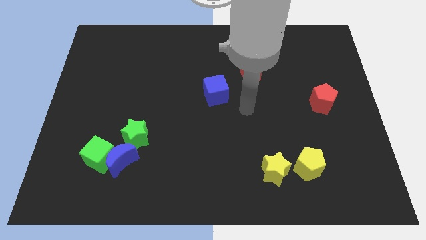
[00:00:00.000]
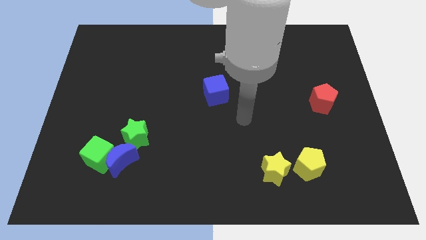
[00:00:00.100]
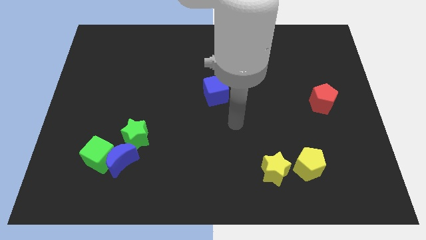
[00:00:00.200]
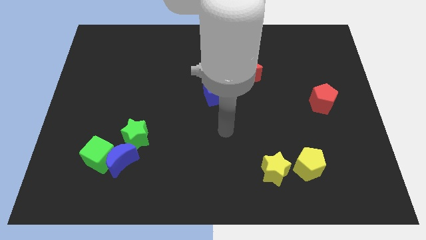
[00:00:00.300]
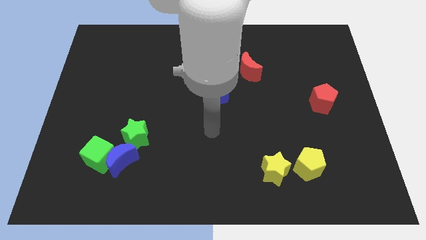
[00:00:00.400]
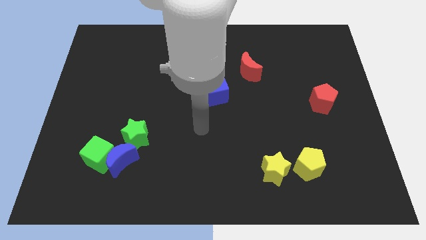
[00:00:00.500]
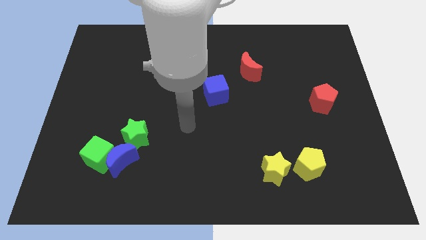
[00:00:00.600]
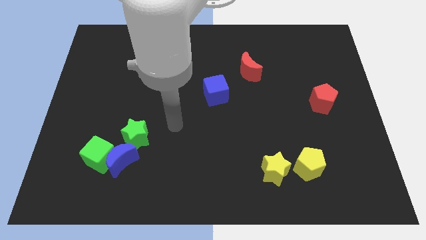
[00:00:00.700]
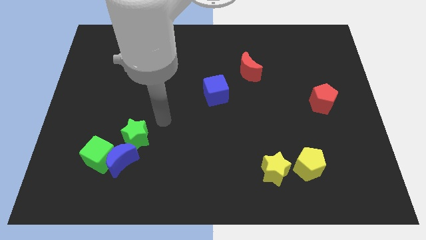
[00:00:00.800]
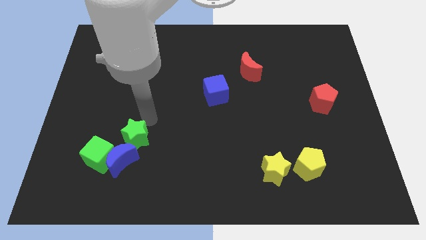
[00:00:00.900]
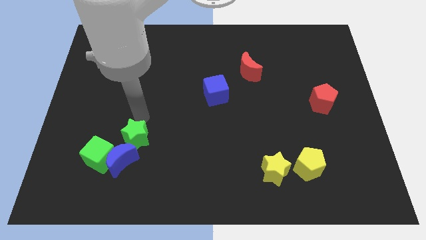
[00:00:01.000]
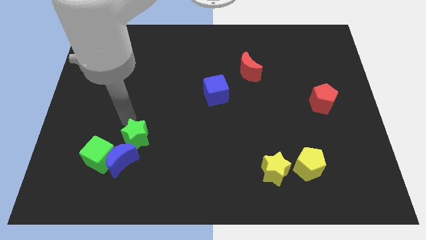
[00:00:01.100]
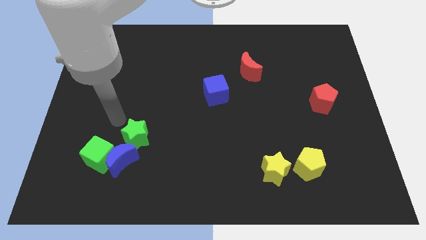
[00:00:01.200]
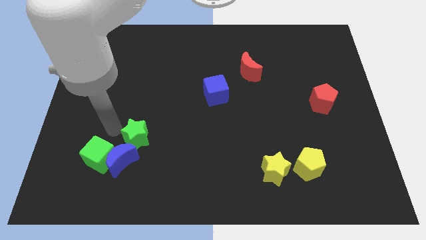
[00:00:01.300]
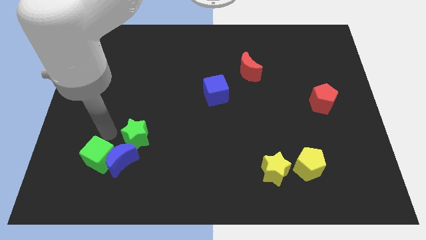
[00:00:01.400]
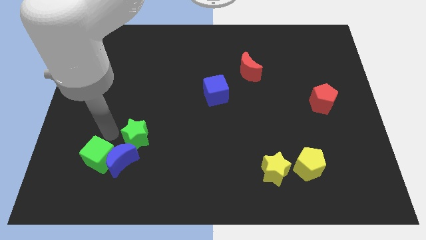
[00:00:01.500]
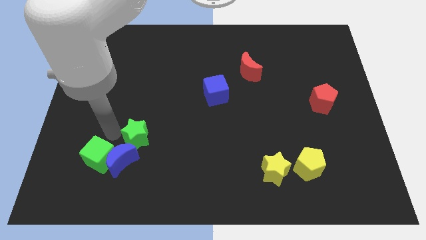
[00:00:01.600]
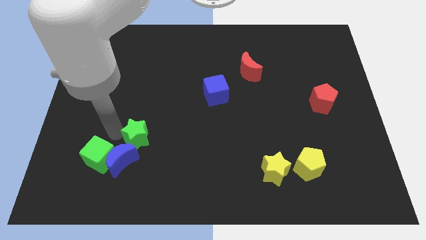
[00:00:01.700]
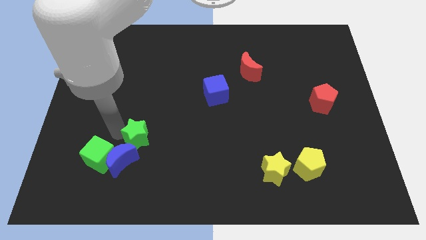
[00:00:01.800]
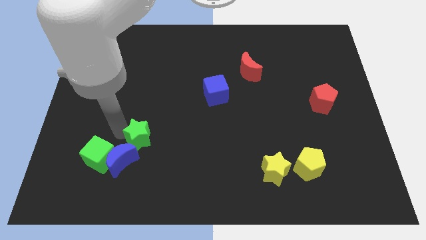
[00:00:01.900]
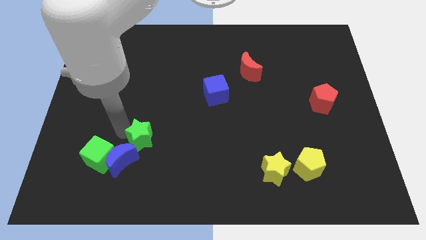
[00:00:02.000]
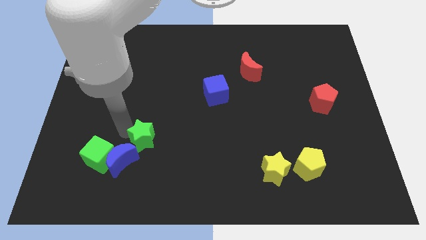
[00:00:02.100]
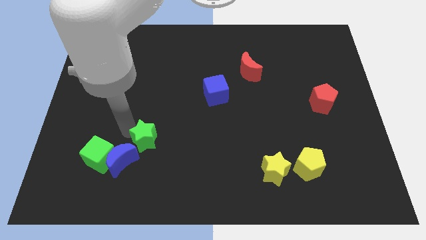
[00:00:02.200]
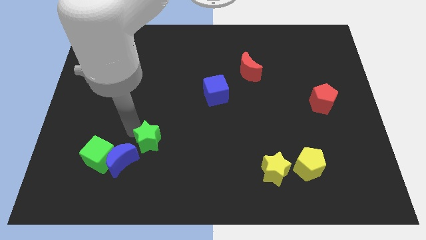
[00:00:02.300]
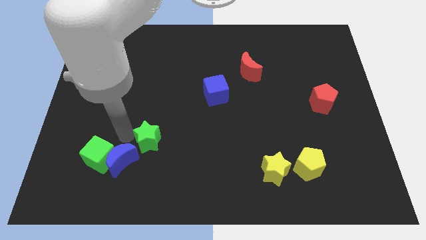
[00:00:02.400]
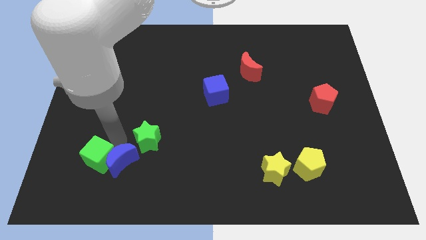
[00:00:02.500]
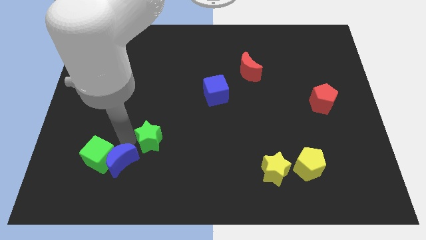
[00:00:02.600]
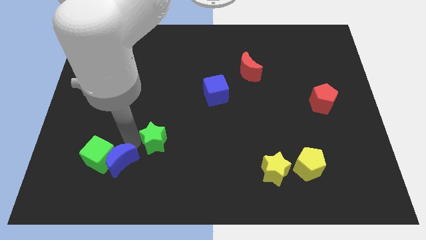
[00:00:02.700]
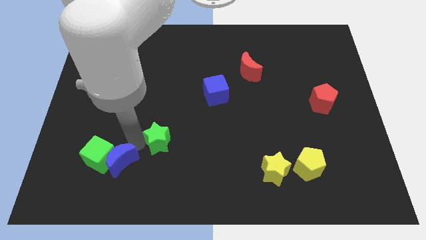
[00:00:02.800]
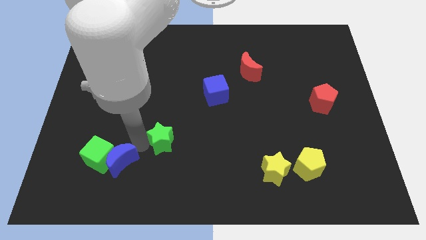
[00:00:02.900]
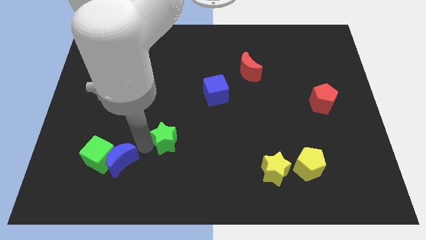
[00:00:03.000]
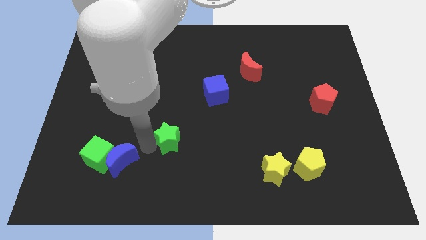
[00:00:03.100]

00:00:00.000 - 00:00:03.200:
slide the green star to the right a bit

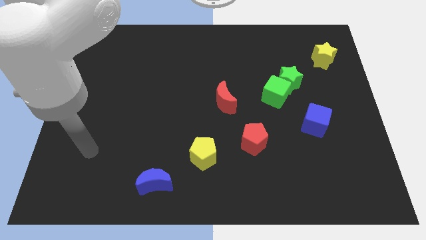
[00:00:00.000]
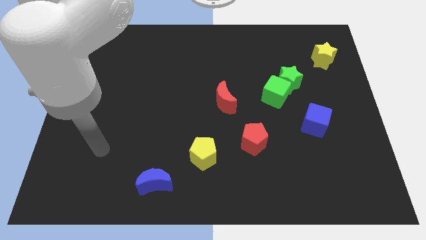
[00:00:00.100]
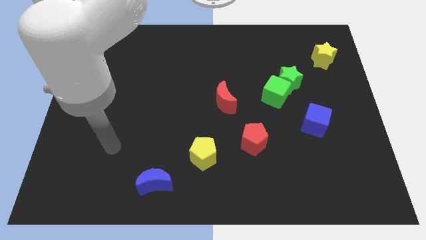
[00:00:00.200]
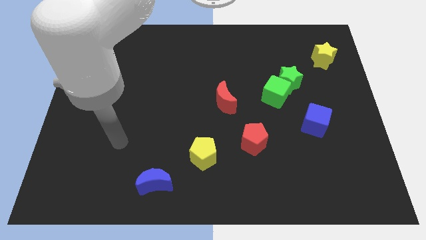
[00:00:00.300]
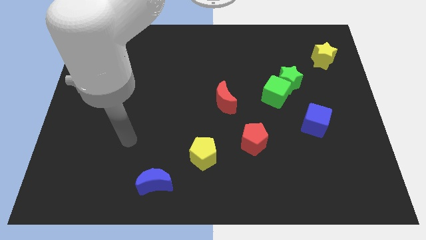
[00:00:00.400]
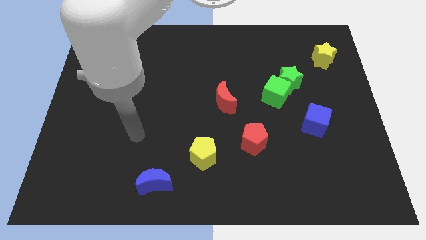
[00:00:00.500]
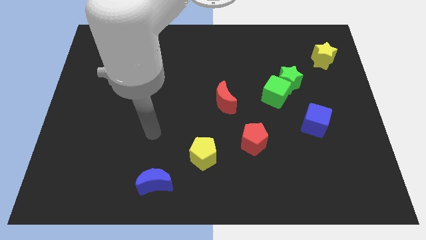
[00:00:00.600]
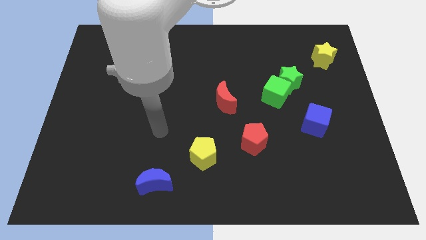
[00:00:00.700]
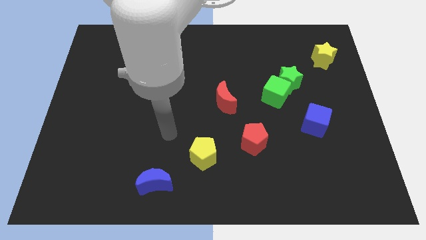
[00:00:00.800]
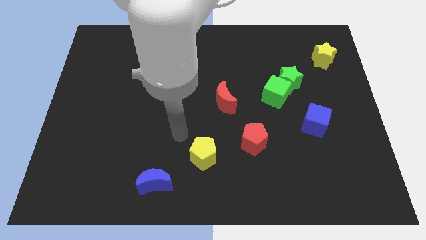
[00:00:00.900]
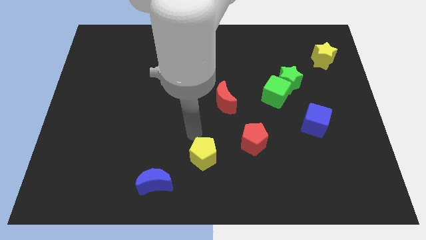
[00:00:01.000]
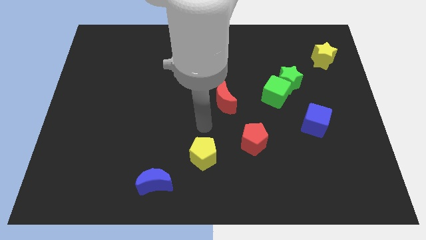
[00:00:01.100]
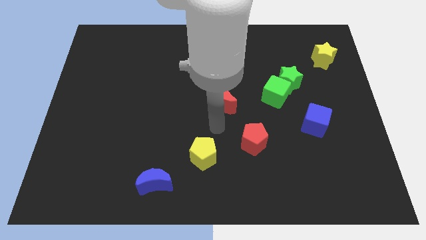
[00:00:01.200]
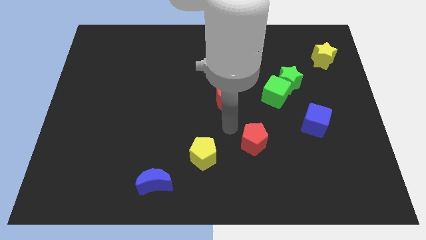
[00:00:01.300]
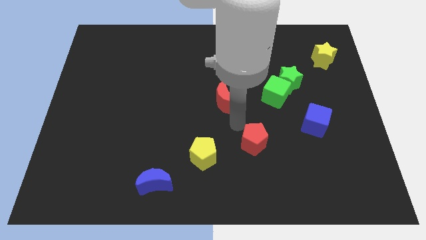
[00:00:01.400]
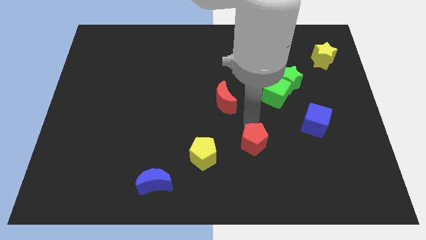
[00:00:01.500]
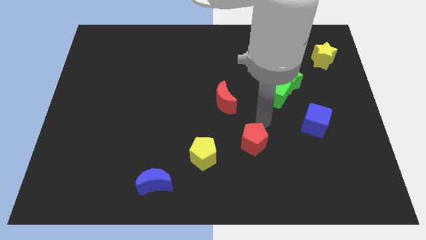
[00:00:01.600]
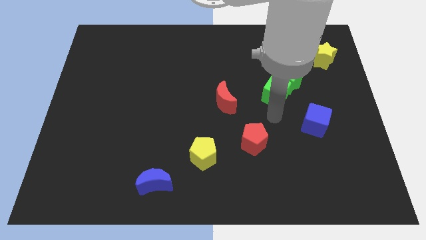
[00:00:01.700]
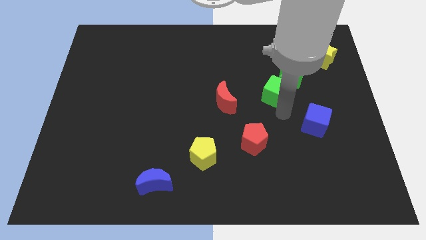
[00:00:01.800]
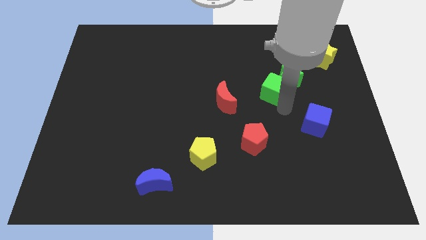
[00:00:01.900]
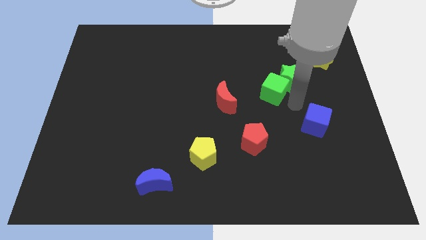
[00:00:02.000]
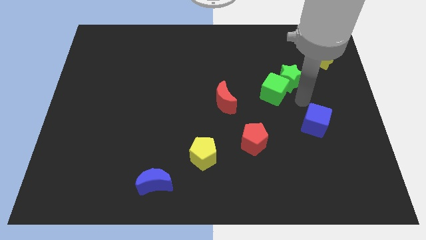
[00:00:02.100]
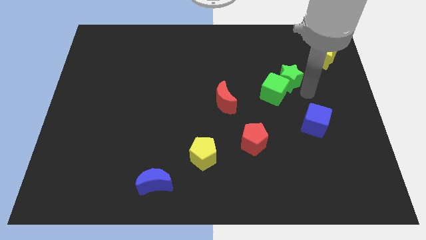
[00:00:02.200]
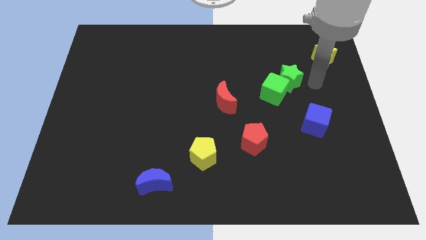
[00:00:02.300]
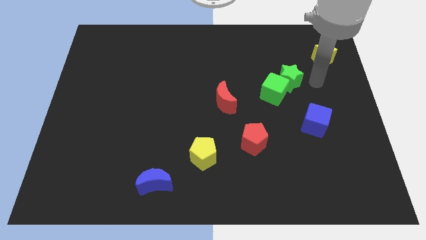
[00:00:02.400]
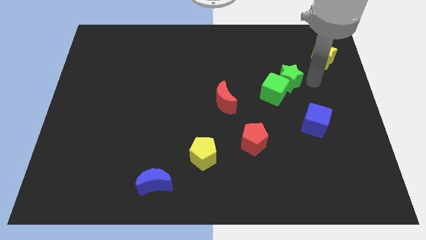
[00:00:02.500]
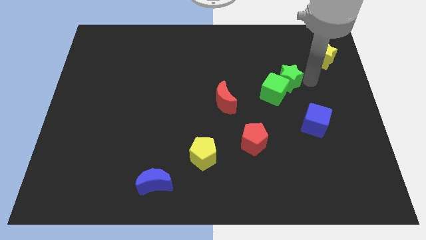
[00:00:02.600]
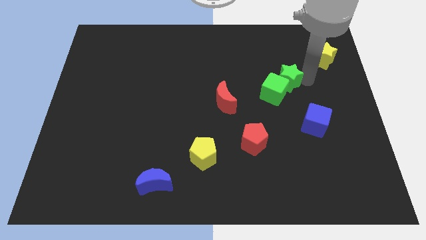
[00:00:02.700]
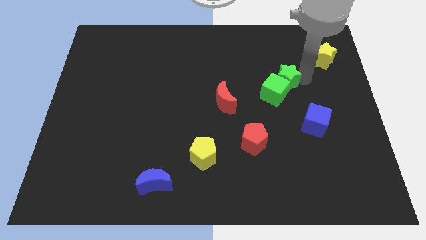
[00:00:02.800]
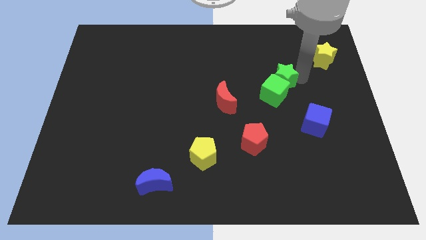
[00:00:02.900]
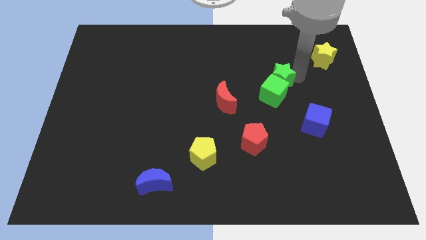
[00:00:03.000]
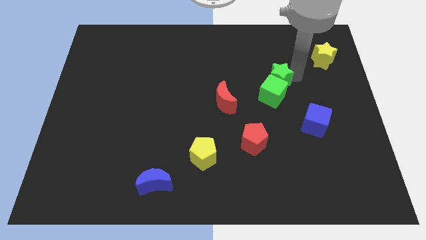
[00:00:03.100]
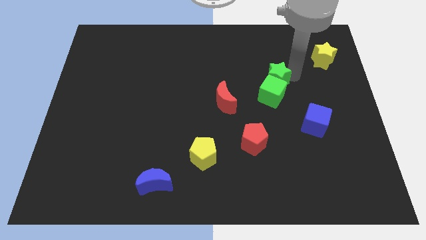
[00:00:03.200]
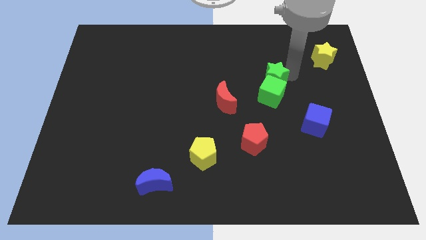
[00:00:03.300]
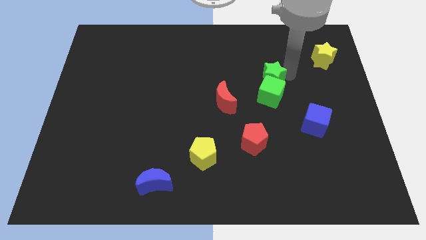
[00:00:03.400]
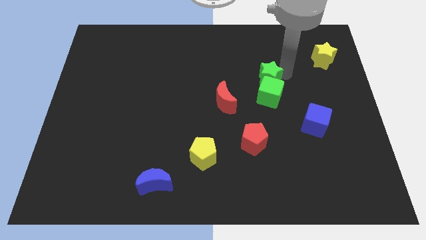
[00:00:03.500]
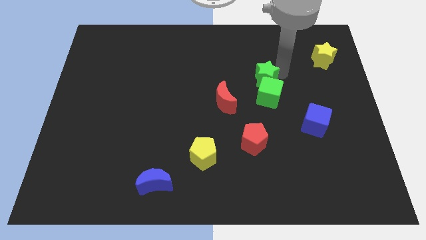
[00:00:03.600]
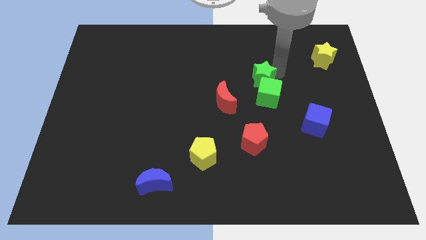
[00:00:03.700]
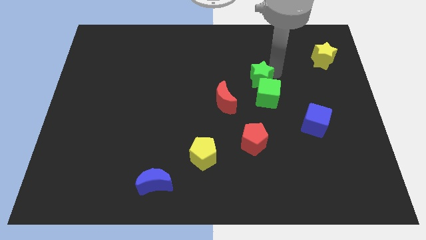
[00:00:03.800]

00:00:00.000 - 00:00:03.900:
slide the green star left a little

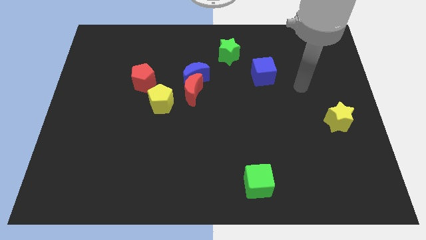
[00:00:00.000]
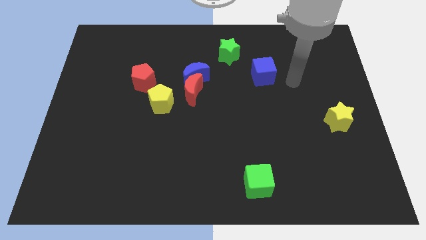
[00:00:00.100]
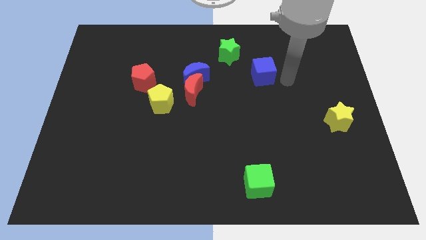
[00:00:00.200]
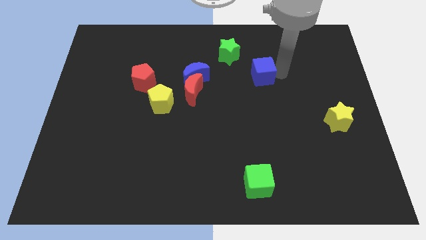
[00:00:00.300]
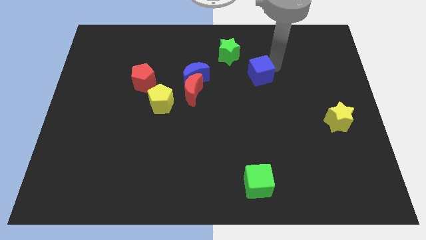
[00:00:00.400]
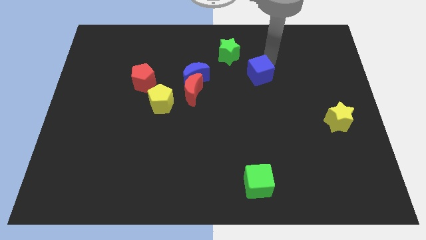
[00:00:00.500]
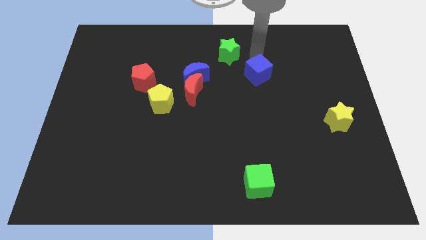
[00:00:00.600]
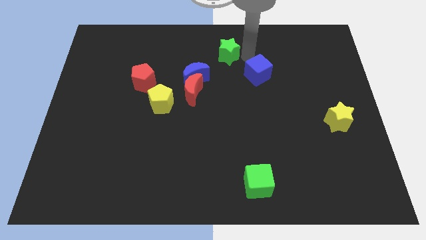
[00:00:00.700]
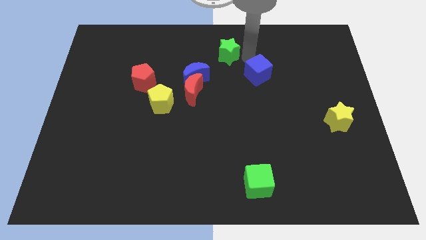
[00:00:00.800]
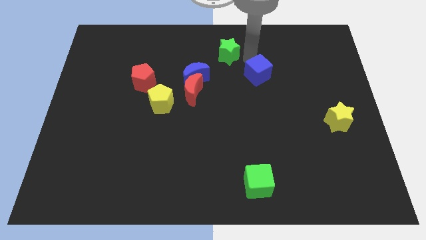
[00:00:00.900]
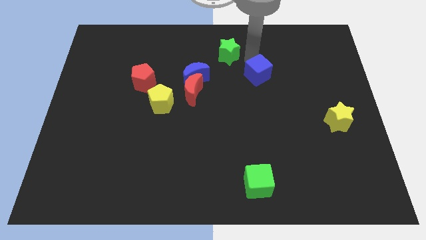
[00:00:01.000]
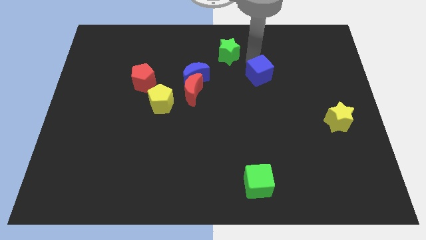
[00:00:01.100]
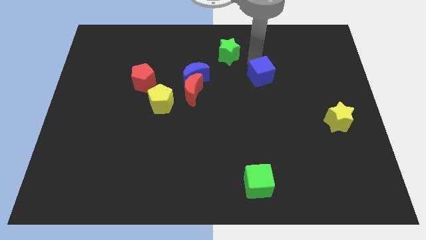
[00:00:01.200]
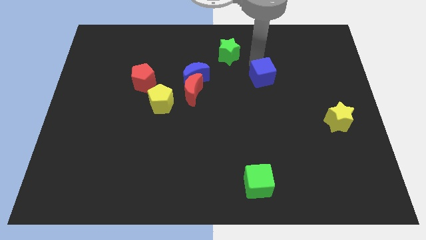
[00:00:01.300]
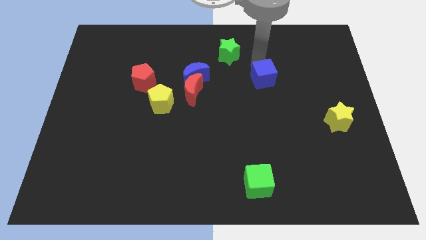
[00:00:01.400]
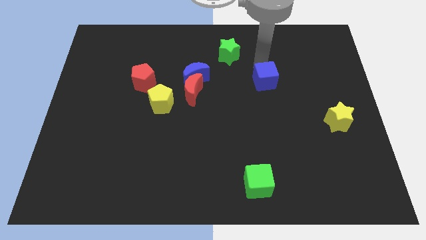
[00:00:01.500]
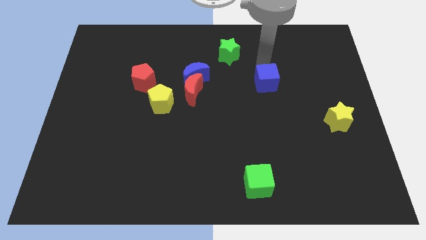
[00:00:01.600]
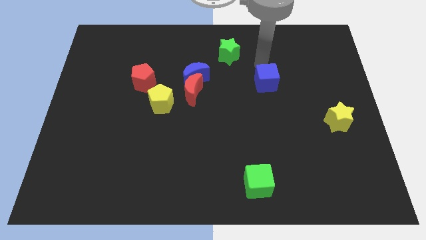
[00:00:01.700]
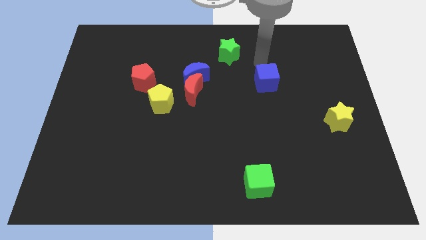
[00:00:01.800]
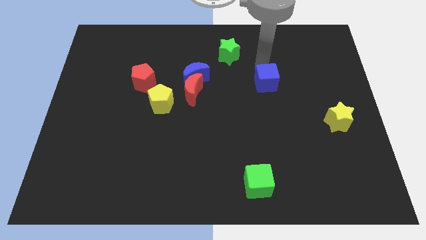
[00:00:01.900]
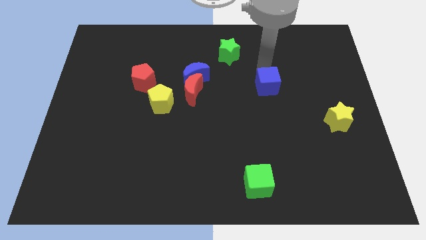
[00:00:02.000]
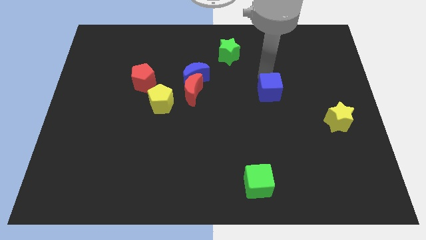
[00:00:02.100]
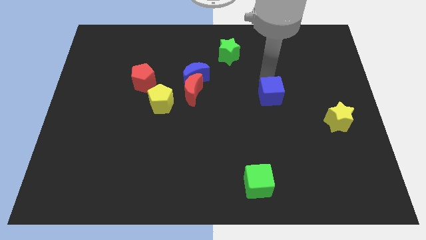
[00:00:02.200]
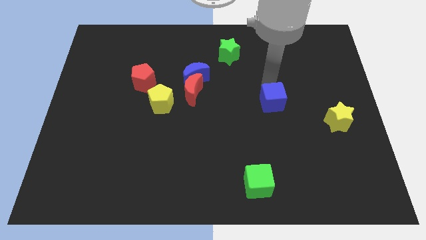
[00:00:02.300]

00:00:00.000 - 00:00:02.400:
move the blue cube a little down
